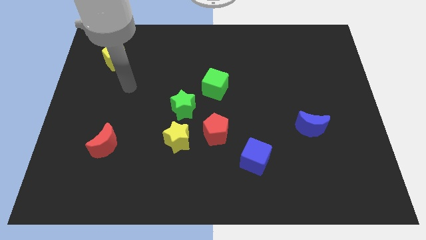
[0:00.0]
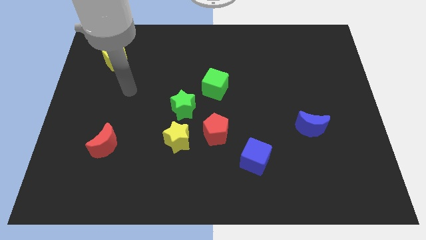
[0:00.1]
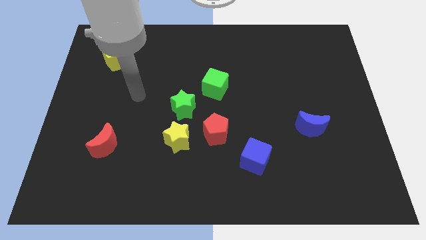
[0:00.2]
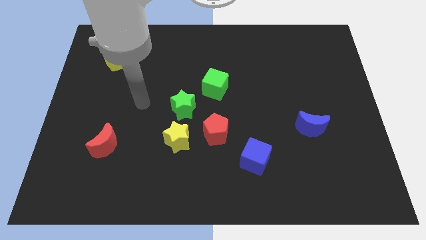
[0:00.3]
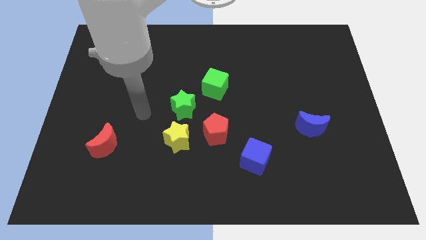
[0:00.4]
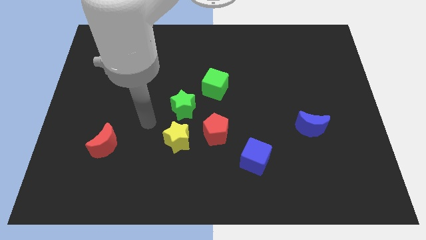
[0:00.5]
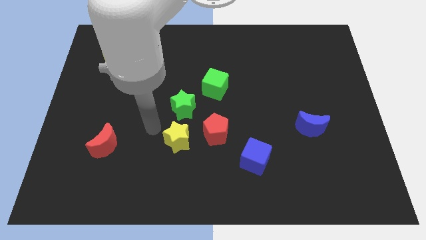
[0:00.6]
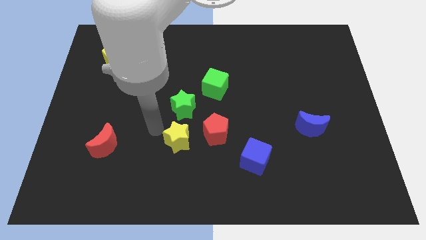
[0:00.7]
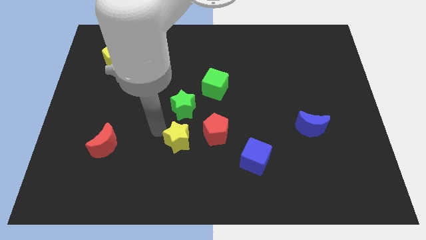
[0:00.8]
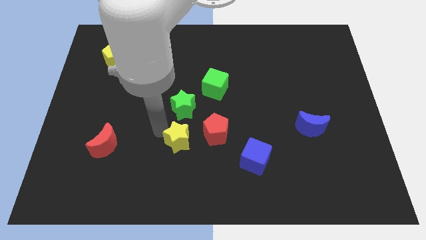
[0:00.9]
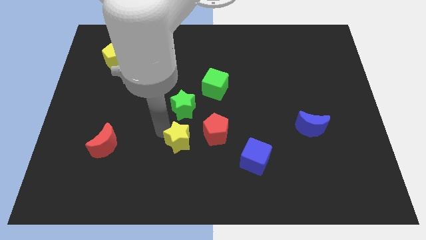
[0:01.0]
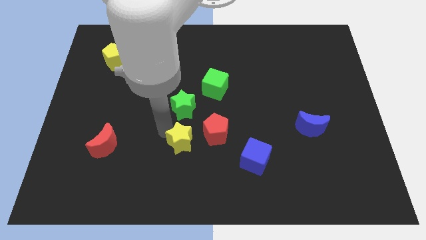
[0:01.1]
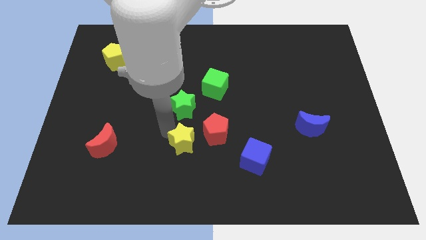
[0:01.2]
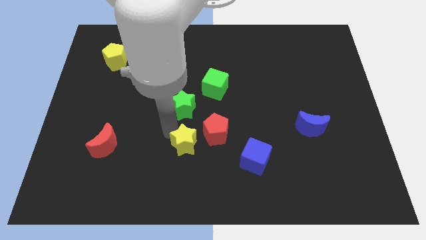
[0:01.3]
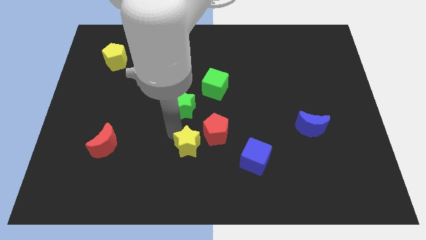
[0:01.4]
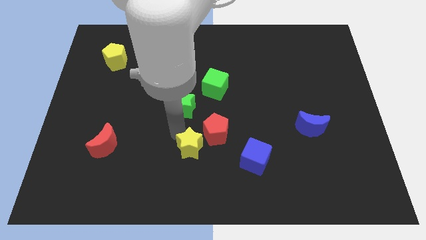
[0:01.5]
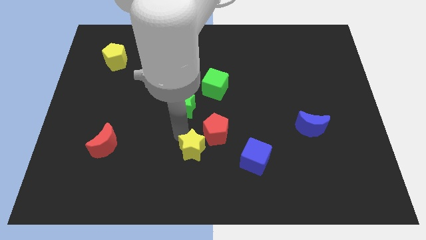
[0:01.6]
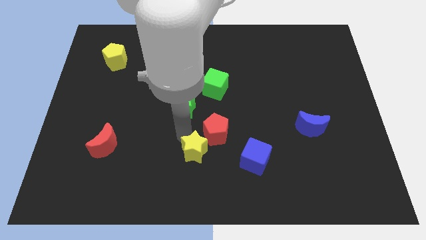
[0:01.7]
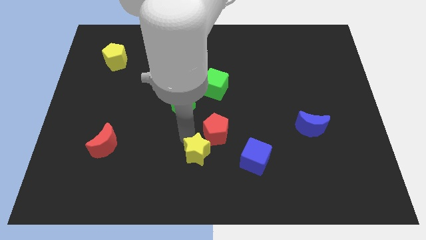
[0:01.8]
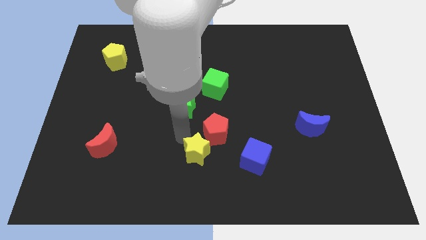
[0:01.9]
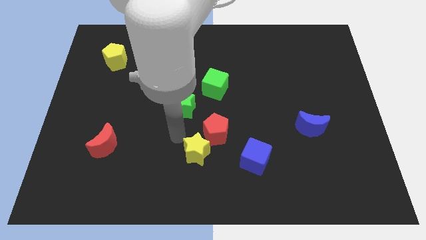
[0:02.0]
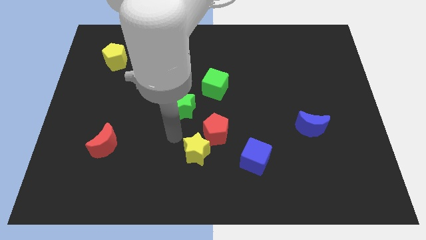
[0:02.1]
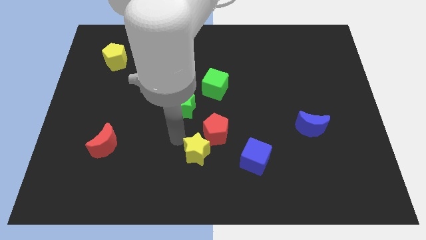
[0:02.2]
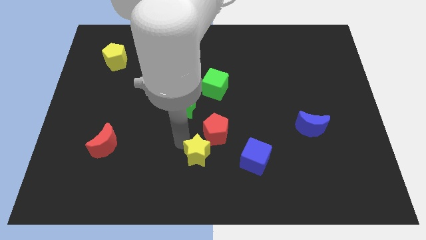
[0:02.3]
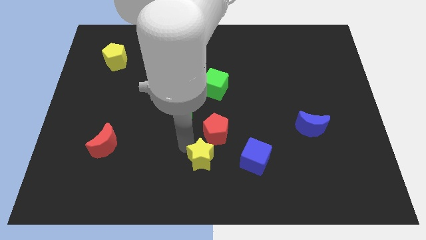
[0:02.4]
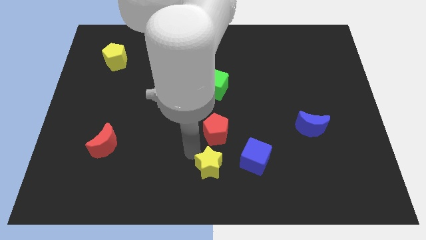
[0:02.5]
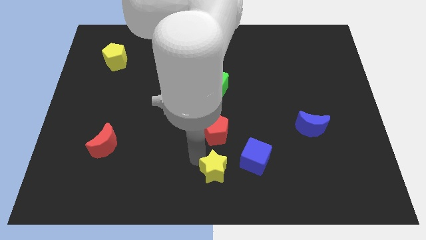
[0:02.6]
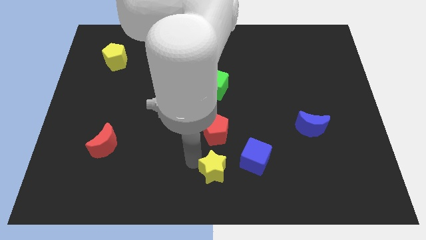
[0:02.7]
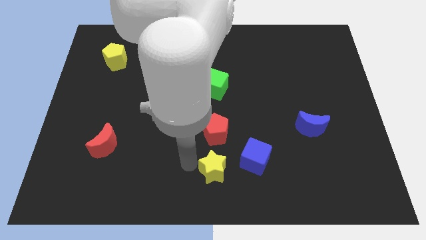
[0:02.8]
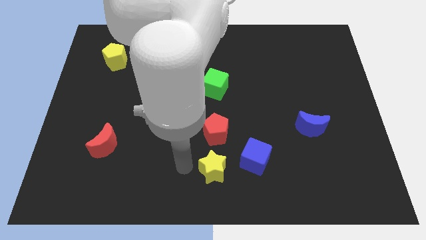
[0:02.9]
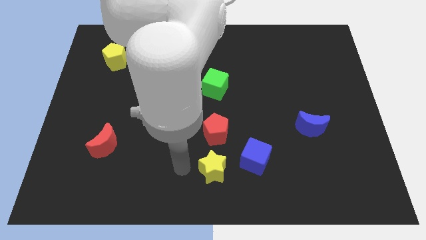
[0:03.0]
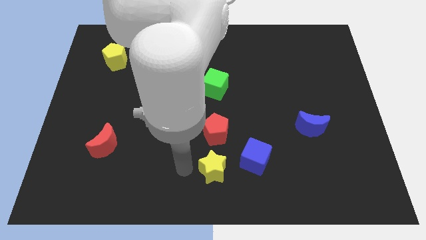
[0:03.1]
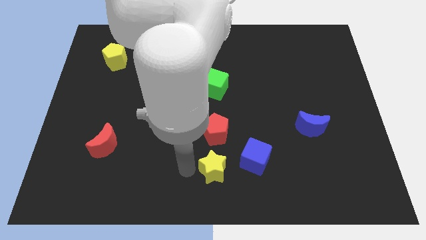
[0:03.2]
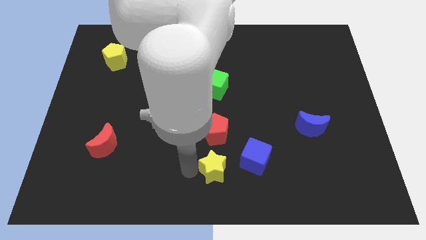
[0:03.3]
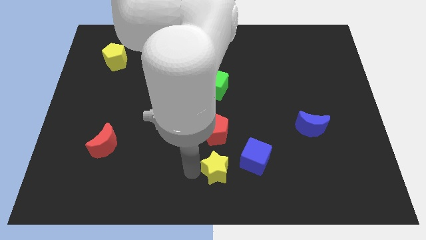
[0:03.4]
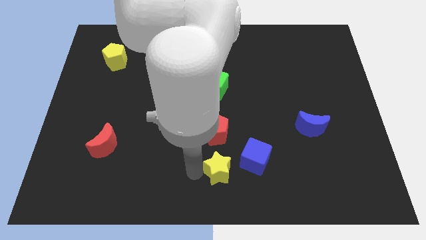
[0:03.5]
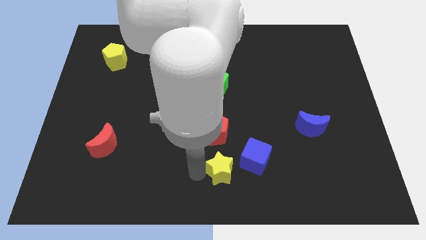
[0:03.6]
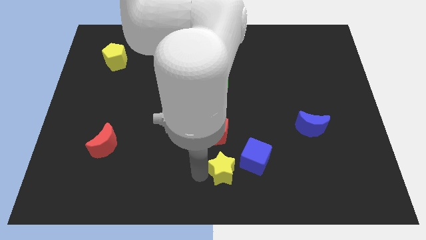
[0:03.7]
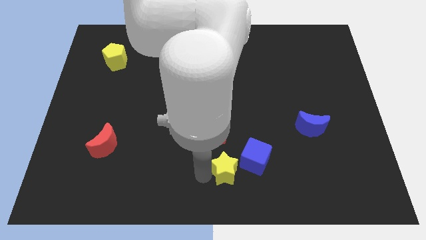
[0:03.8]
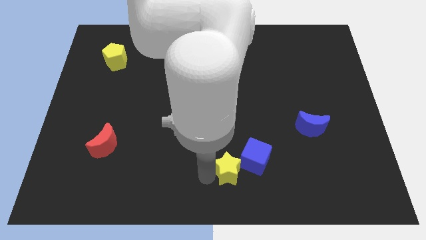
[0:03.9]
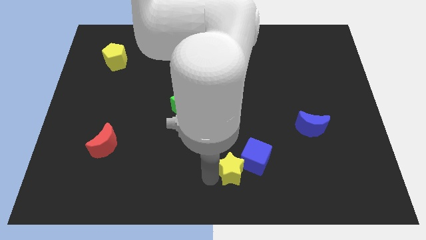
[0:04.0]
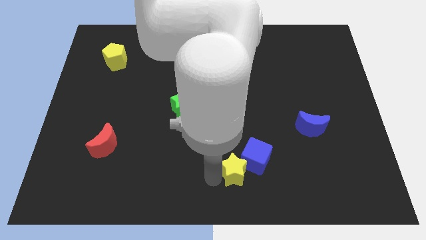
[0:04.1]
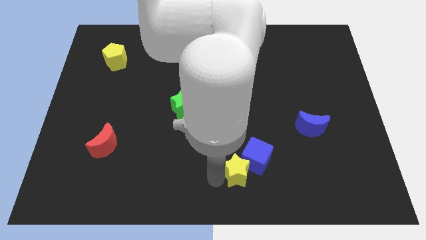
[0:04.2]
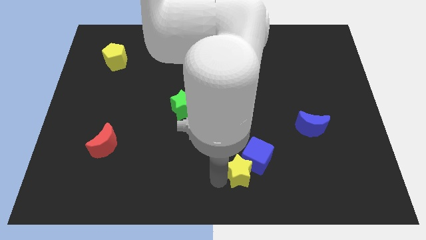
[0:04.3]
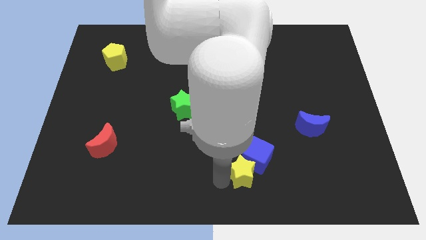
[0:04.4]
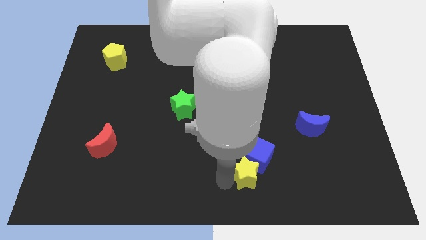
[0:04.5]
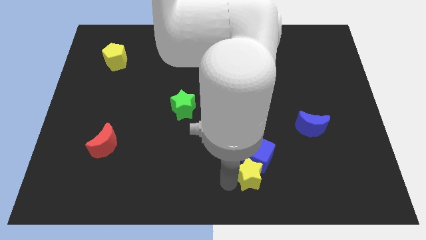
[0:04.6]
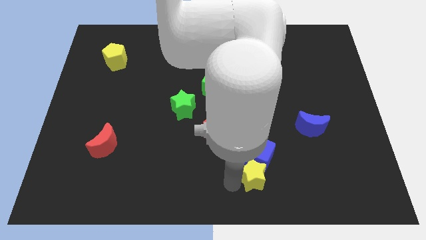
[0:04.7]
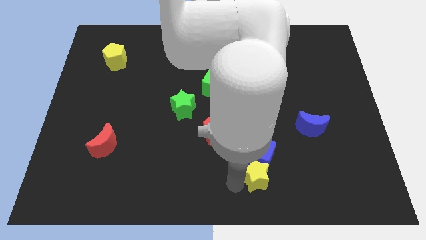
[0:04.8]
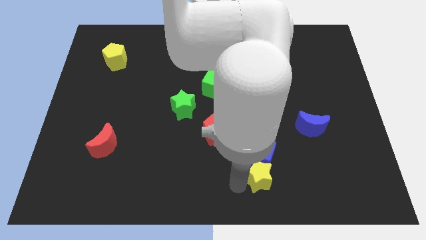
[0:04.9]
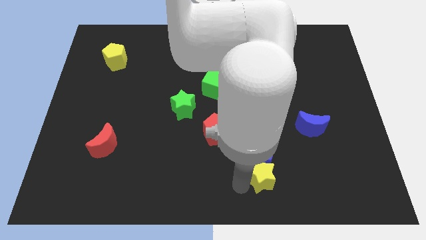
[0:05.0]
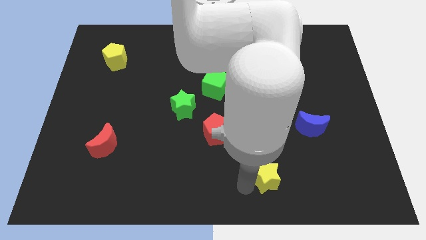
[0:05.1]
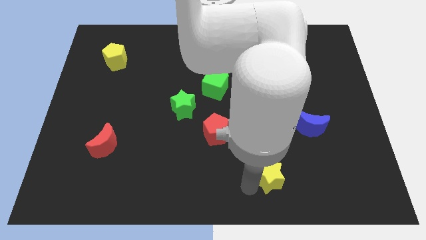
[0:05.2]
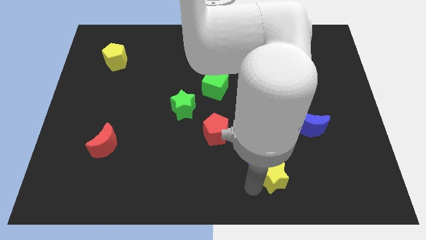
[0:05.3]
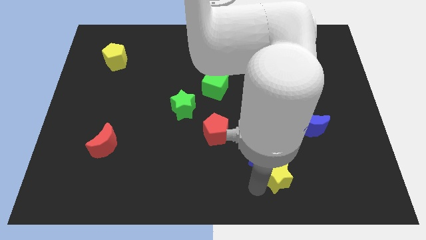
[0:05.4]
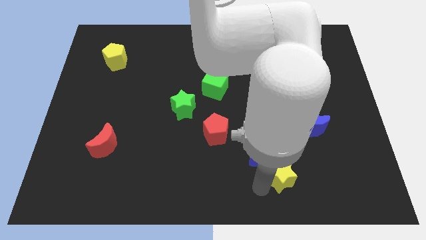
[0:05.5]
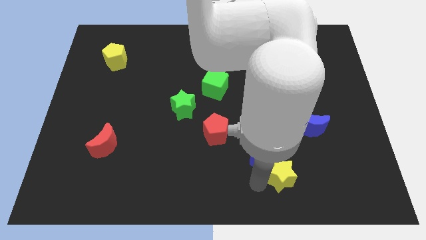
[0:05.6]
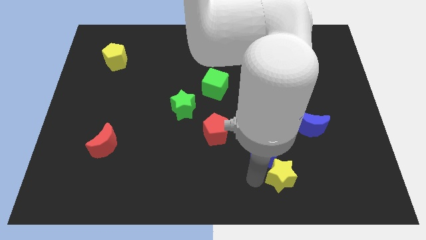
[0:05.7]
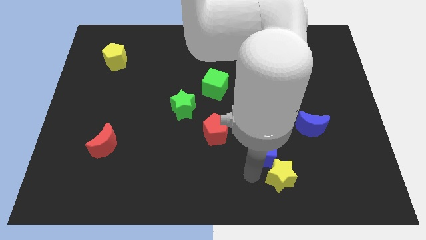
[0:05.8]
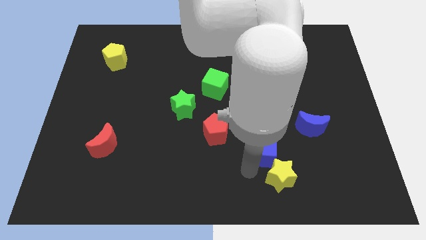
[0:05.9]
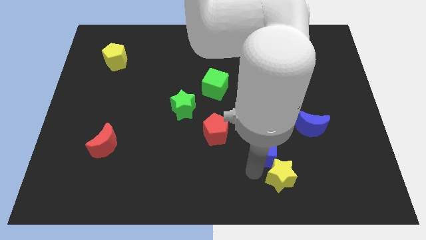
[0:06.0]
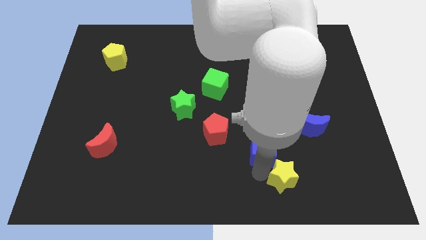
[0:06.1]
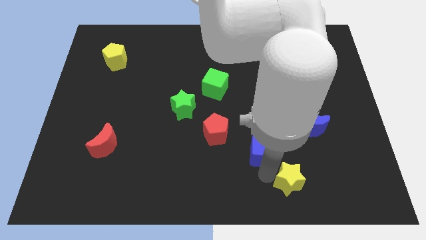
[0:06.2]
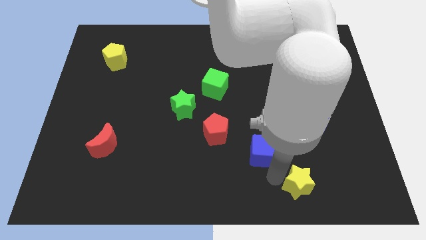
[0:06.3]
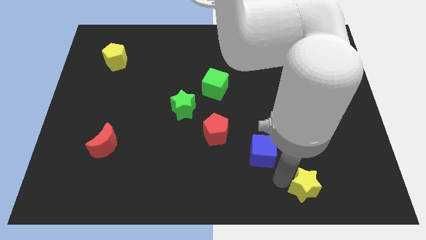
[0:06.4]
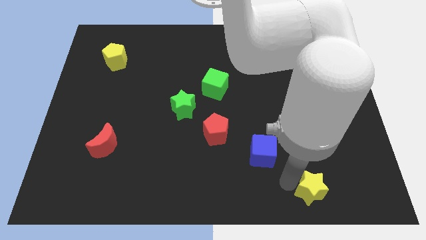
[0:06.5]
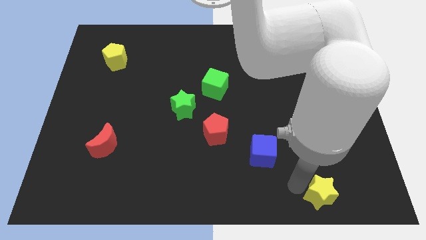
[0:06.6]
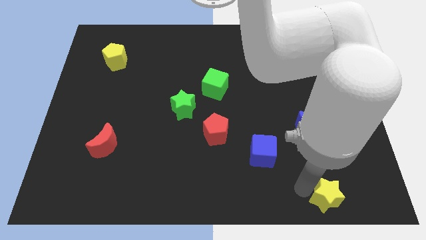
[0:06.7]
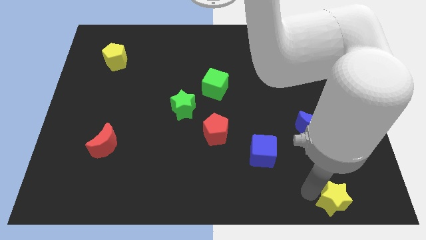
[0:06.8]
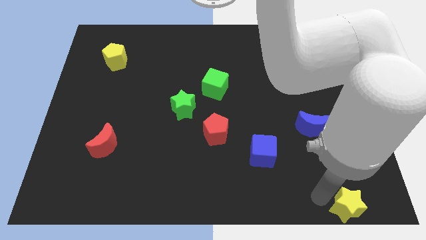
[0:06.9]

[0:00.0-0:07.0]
slide the yellow star to the lower right corner
